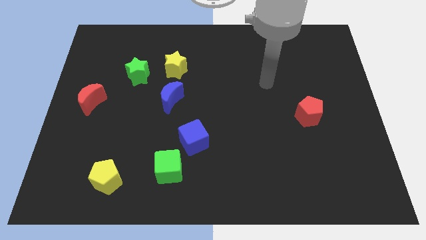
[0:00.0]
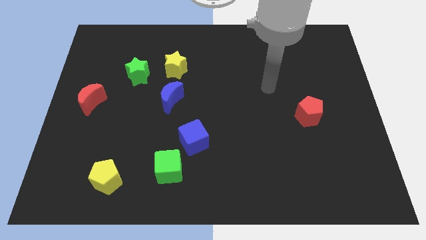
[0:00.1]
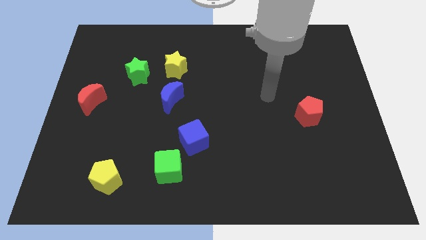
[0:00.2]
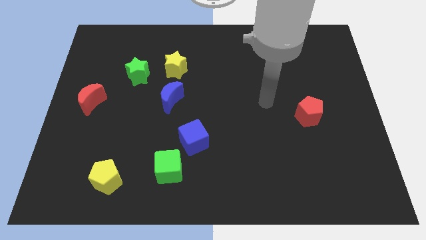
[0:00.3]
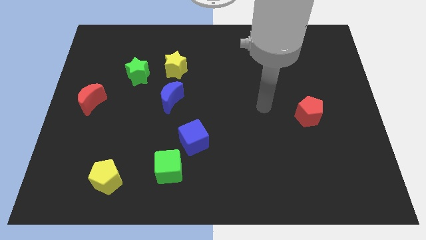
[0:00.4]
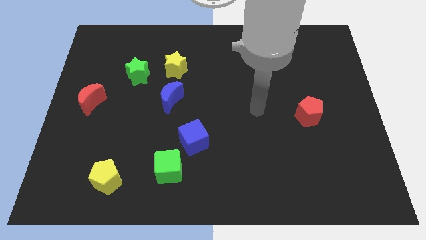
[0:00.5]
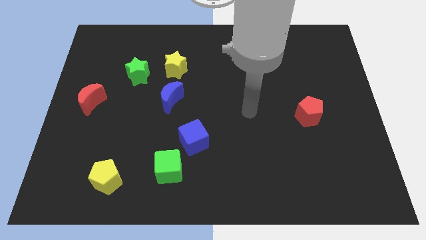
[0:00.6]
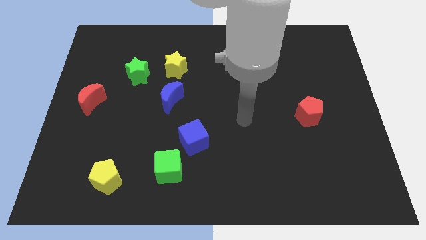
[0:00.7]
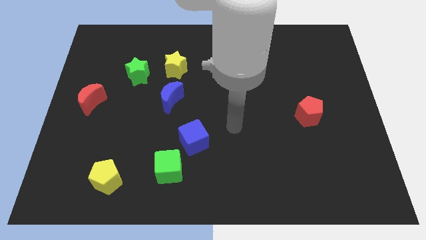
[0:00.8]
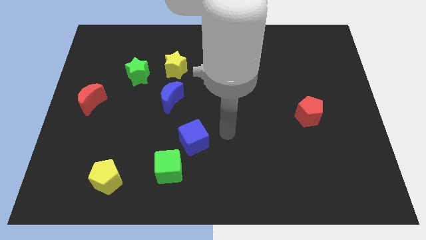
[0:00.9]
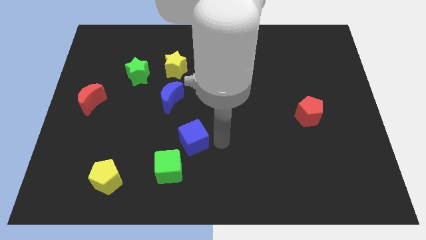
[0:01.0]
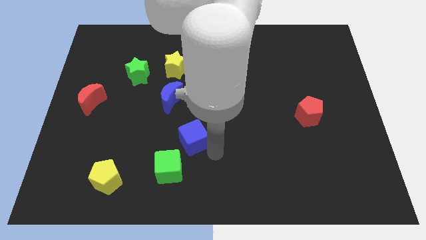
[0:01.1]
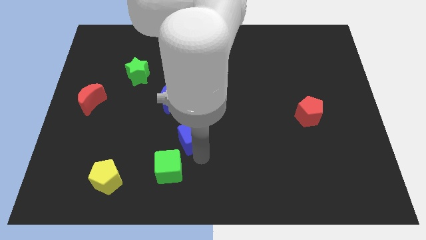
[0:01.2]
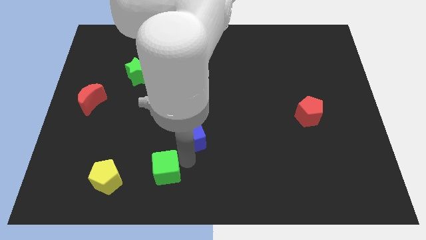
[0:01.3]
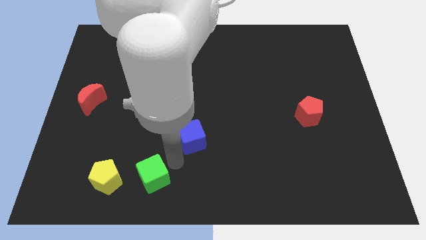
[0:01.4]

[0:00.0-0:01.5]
move the blue cube away from the green cube

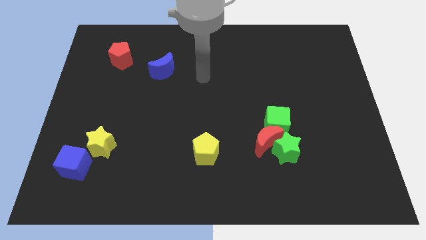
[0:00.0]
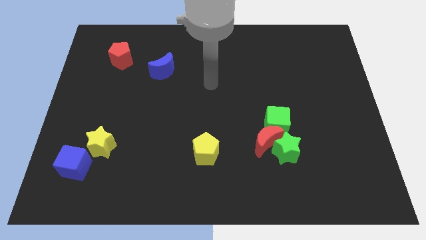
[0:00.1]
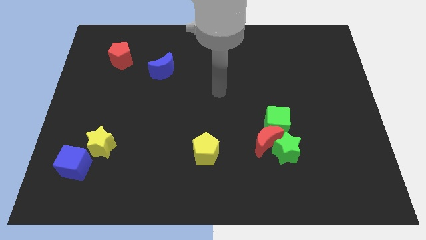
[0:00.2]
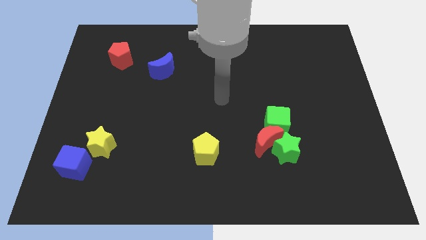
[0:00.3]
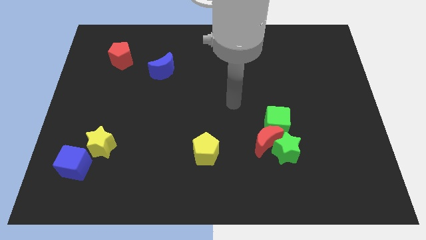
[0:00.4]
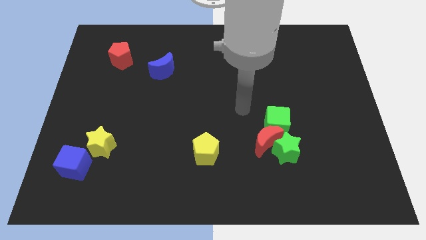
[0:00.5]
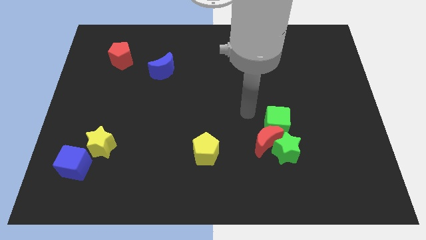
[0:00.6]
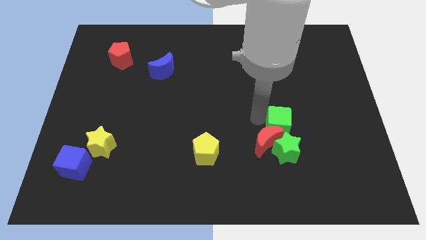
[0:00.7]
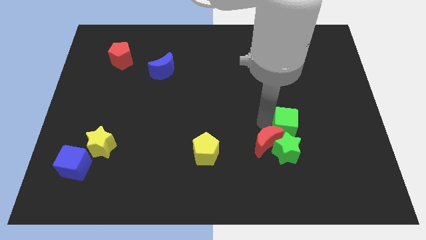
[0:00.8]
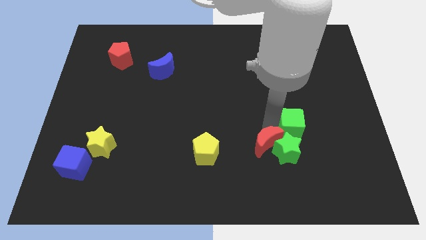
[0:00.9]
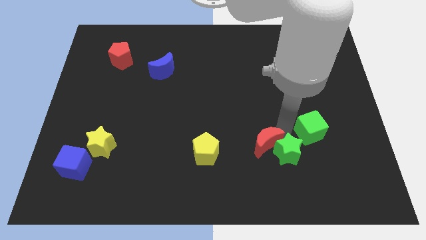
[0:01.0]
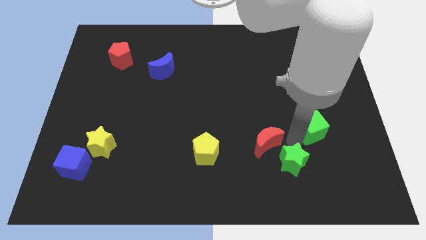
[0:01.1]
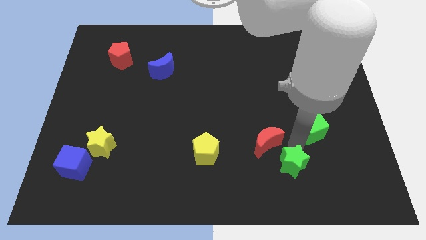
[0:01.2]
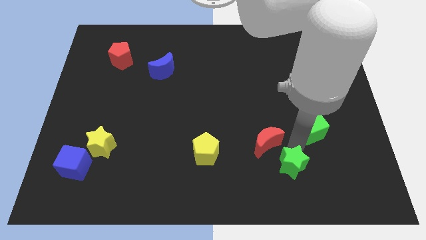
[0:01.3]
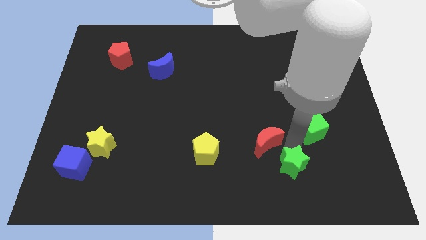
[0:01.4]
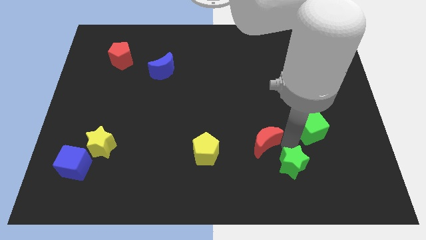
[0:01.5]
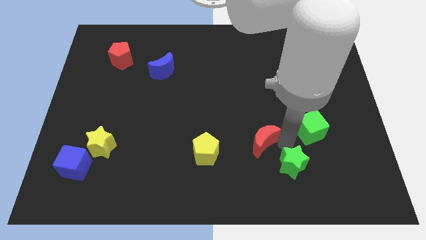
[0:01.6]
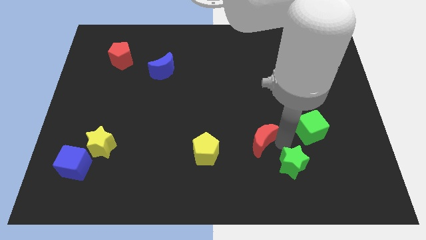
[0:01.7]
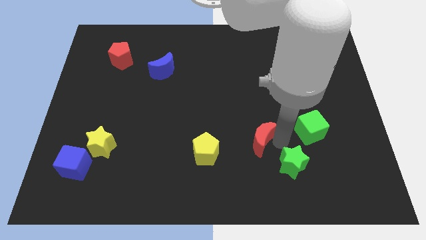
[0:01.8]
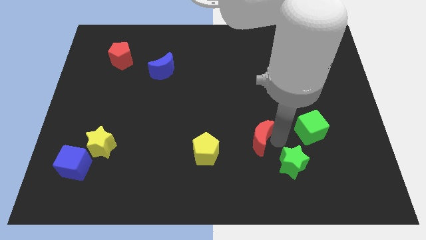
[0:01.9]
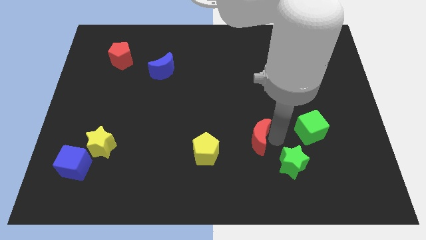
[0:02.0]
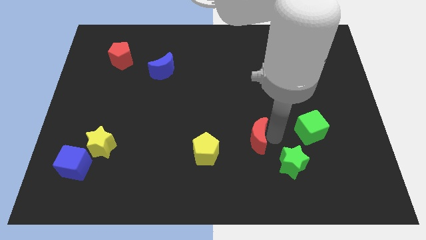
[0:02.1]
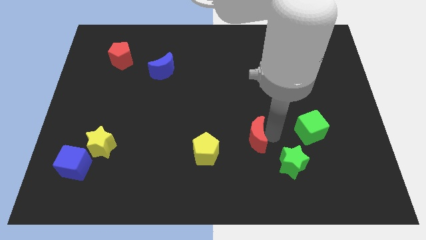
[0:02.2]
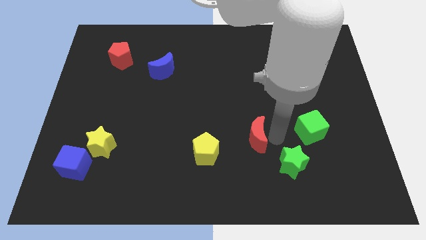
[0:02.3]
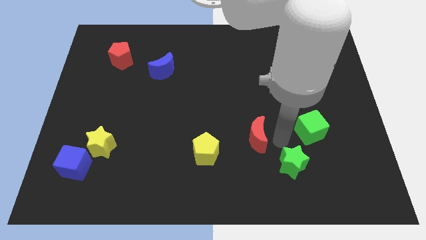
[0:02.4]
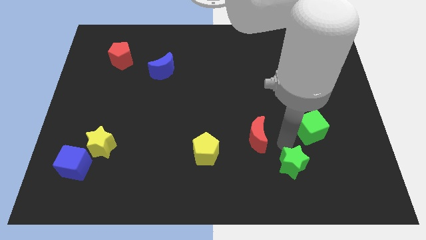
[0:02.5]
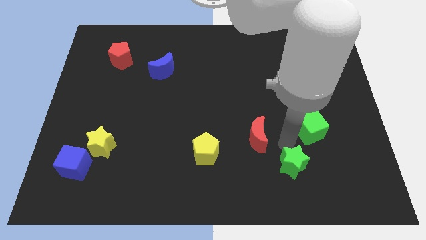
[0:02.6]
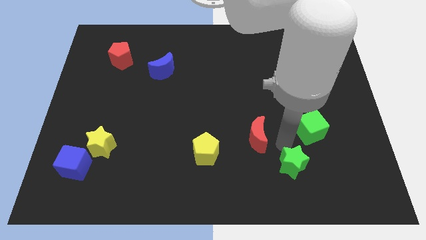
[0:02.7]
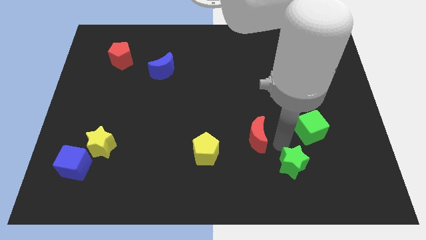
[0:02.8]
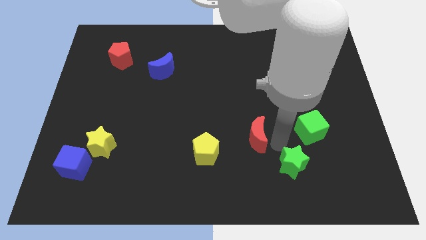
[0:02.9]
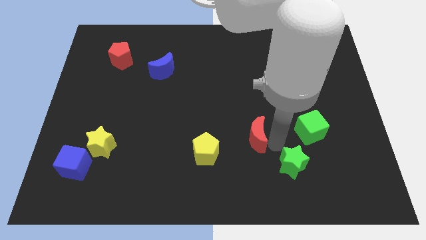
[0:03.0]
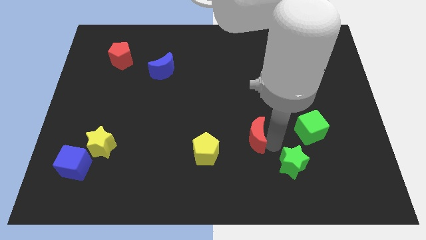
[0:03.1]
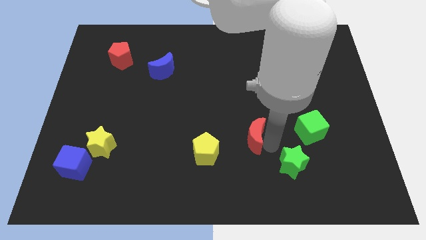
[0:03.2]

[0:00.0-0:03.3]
move the red moon away from the green star and green cube

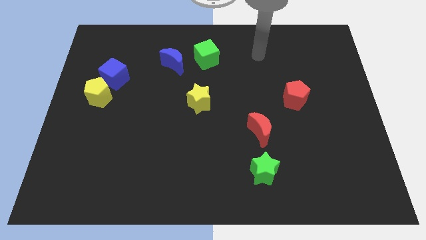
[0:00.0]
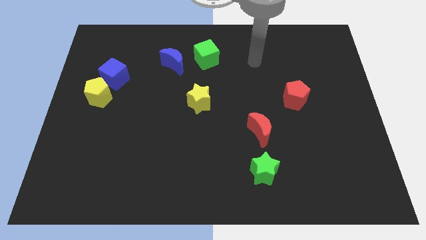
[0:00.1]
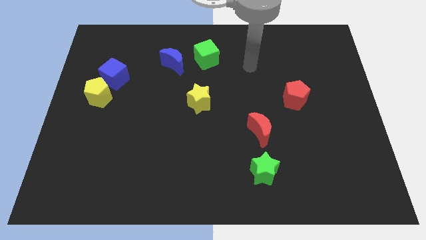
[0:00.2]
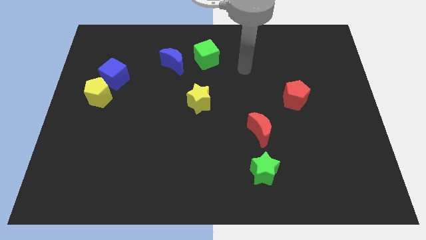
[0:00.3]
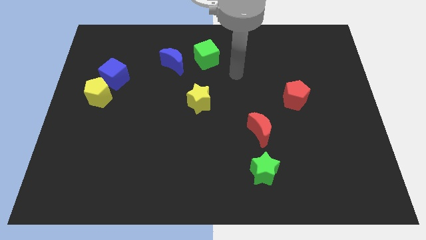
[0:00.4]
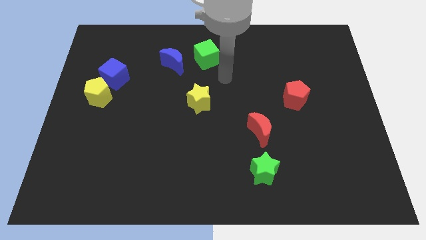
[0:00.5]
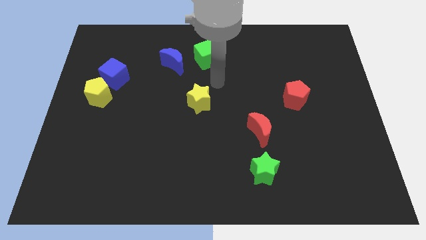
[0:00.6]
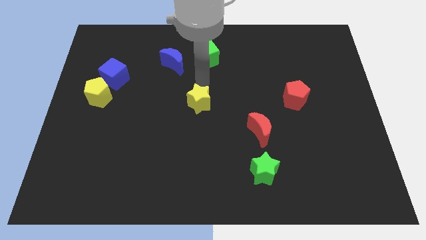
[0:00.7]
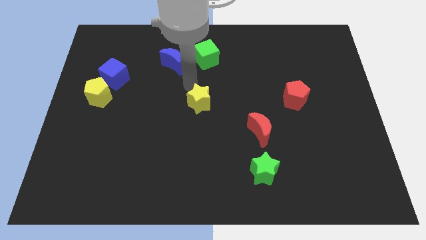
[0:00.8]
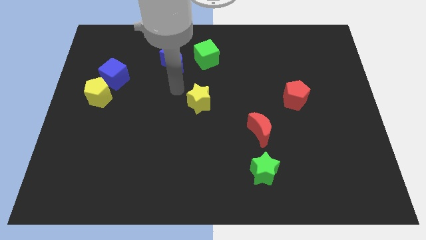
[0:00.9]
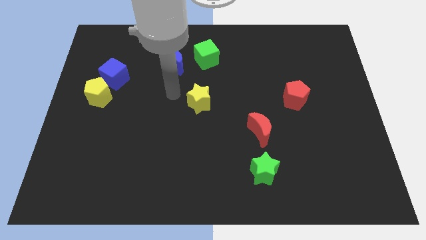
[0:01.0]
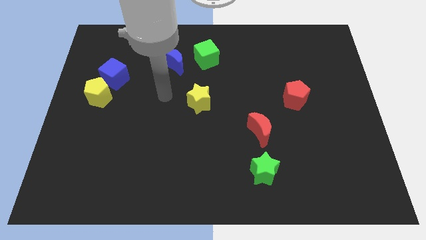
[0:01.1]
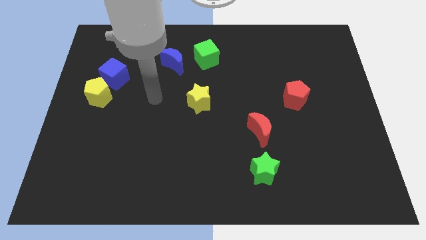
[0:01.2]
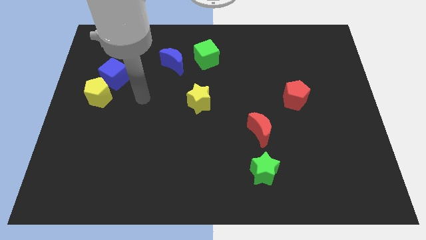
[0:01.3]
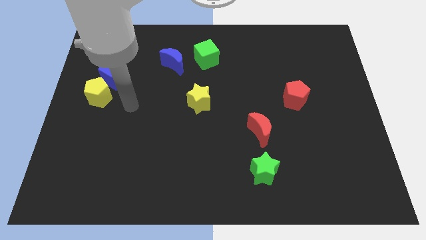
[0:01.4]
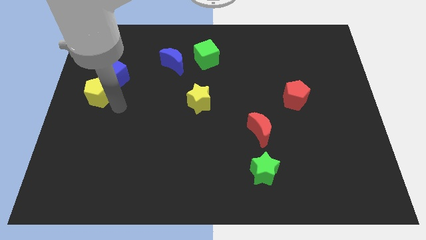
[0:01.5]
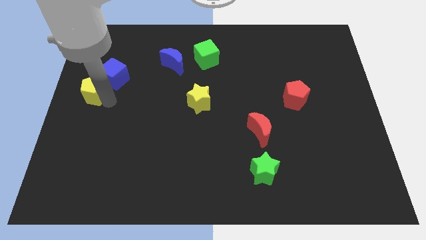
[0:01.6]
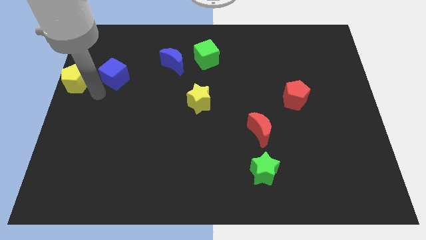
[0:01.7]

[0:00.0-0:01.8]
separate the blue cube from the yellow pentagon

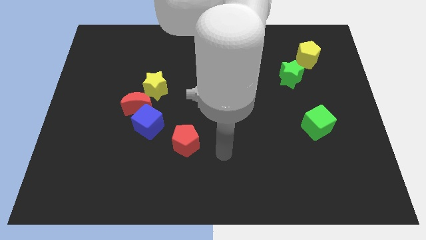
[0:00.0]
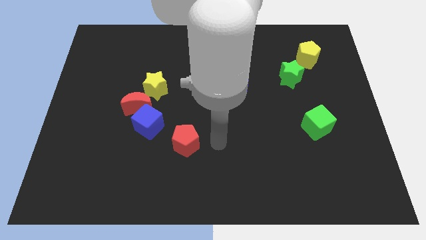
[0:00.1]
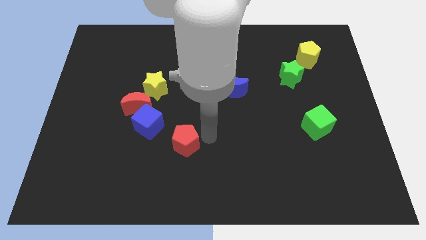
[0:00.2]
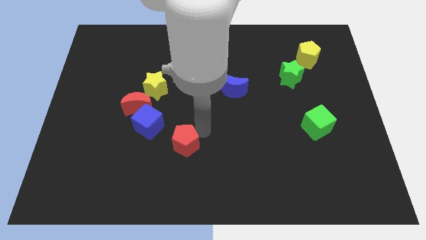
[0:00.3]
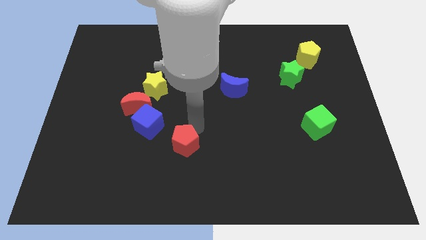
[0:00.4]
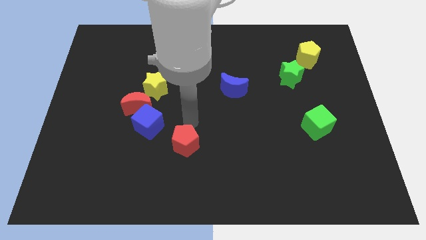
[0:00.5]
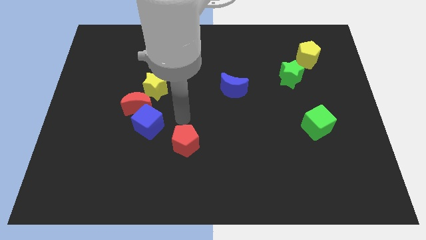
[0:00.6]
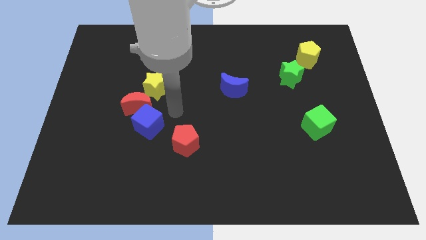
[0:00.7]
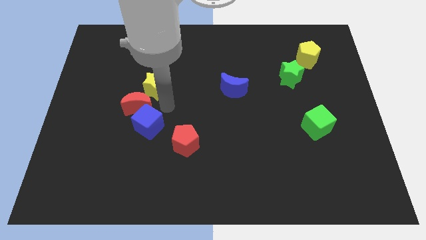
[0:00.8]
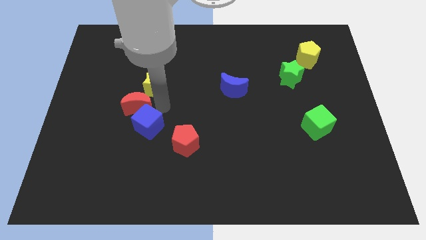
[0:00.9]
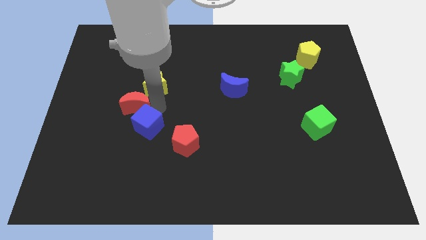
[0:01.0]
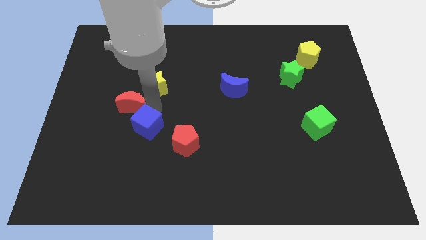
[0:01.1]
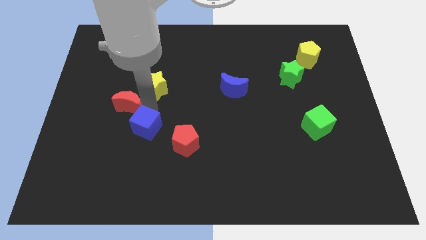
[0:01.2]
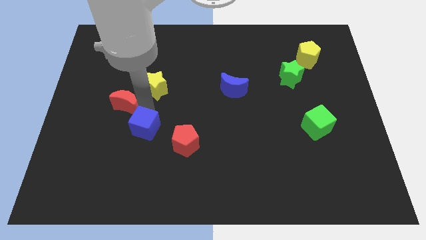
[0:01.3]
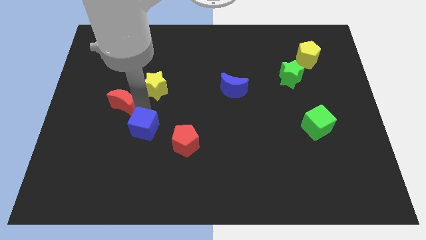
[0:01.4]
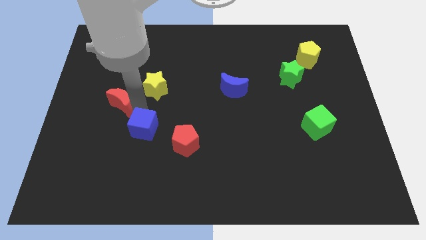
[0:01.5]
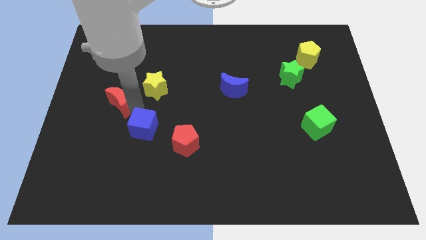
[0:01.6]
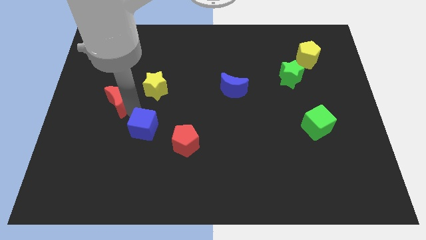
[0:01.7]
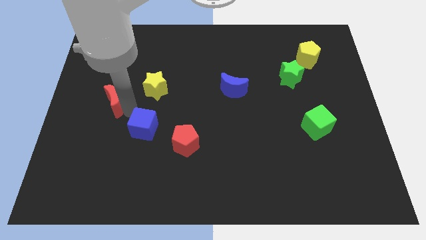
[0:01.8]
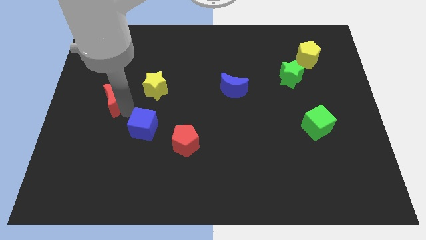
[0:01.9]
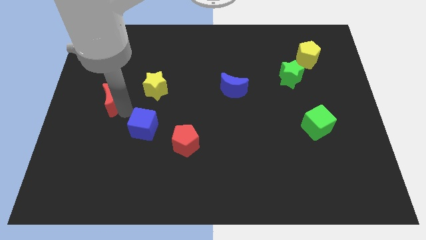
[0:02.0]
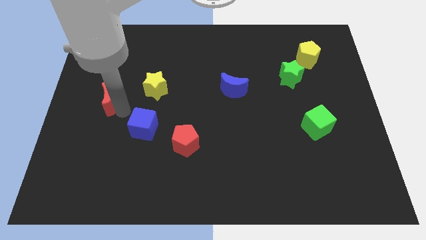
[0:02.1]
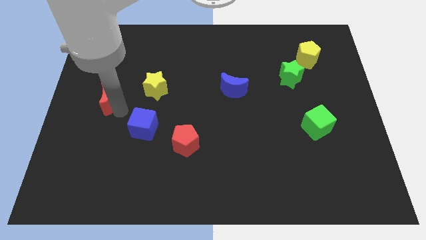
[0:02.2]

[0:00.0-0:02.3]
move the red moon away from the blue cube and yellow star

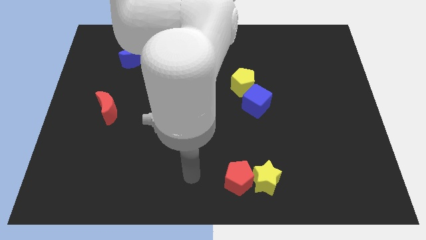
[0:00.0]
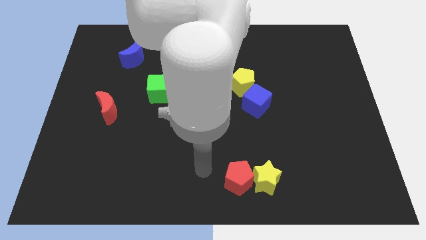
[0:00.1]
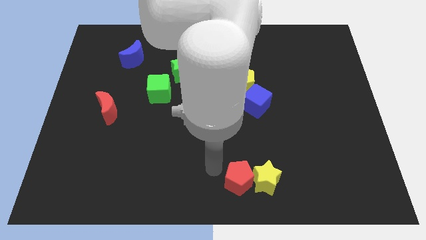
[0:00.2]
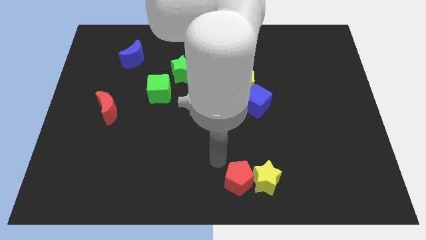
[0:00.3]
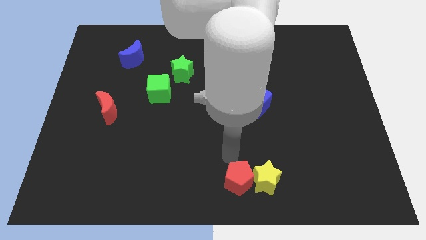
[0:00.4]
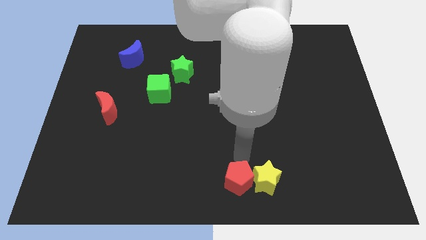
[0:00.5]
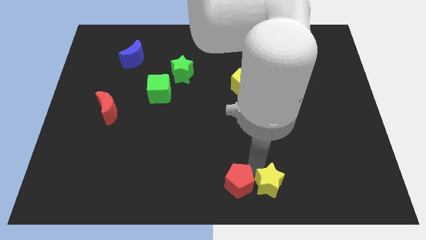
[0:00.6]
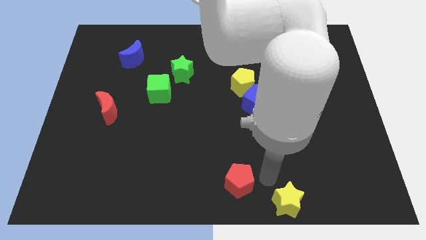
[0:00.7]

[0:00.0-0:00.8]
pull the red pentagon apart from the yellow star
